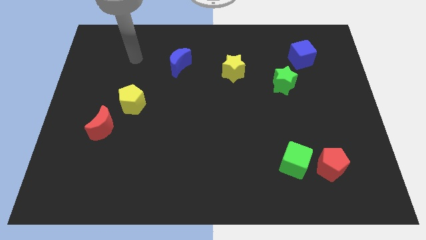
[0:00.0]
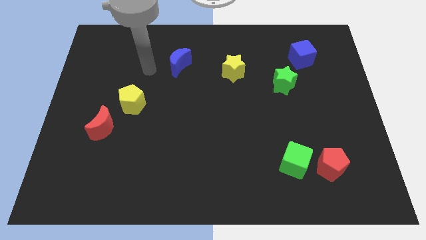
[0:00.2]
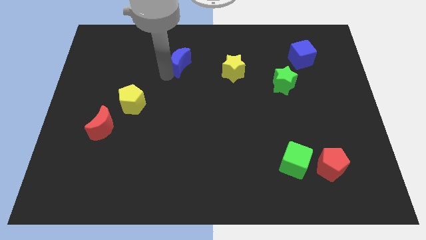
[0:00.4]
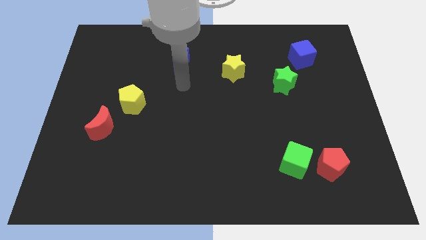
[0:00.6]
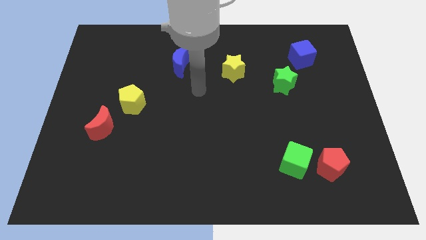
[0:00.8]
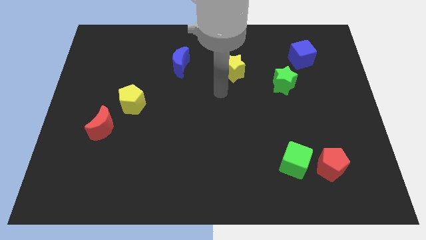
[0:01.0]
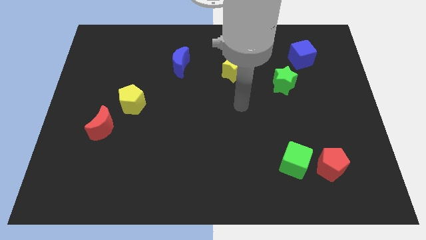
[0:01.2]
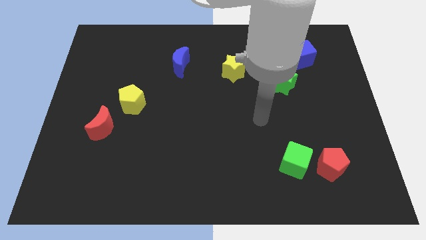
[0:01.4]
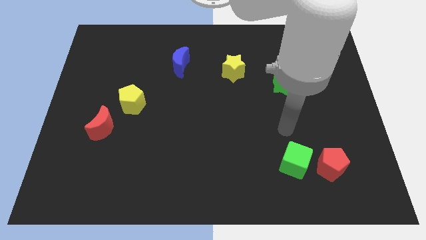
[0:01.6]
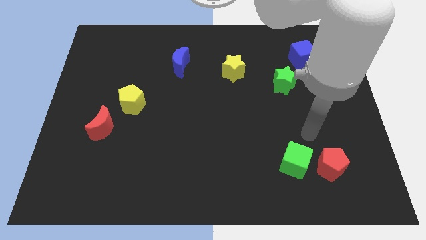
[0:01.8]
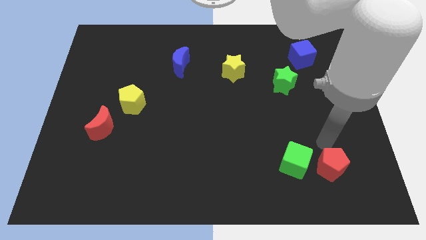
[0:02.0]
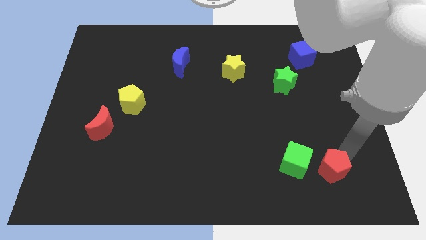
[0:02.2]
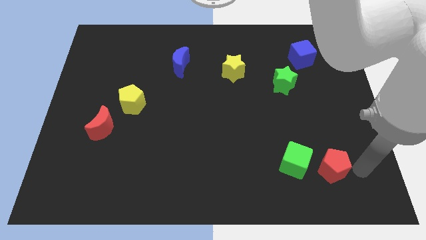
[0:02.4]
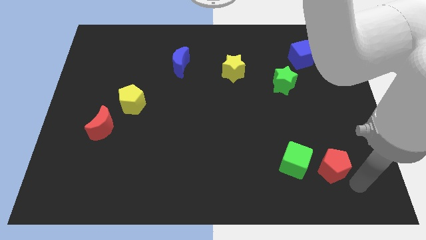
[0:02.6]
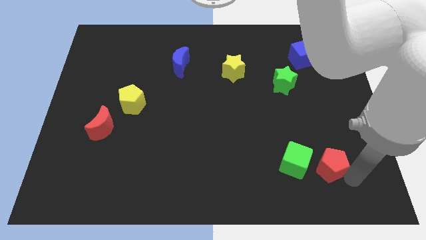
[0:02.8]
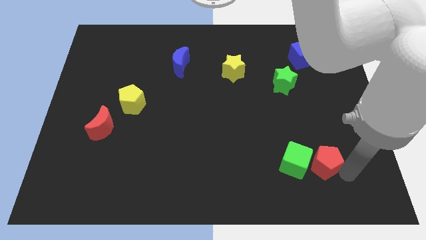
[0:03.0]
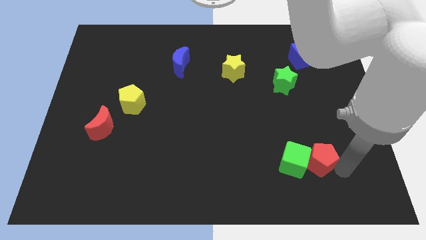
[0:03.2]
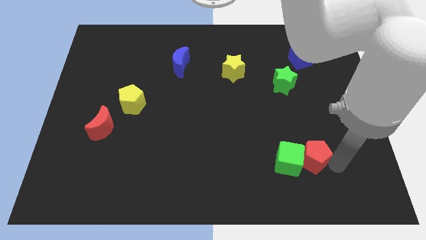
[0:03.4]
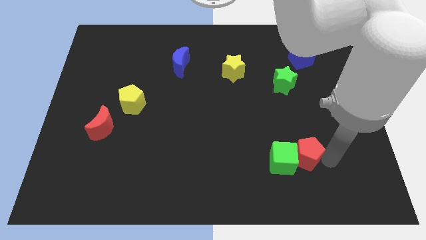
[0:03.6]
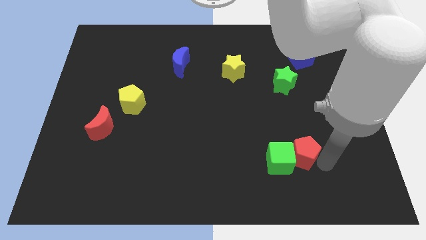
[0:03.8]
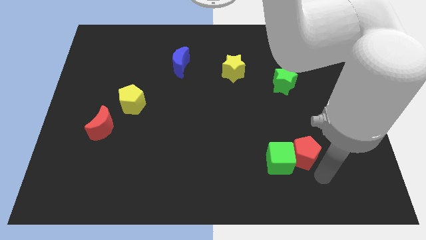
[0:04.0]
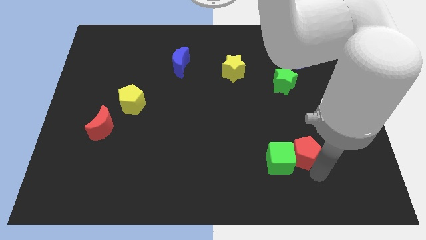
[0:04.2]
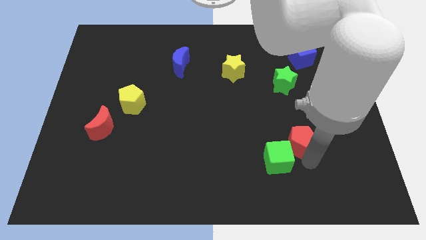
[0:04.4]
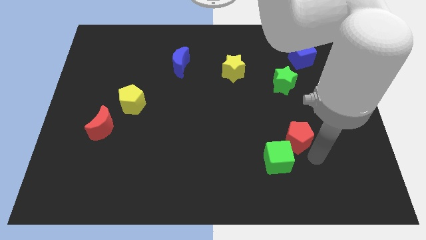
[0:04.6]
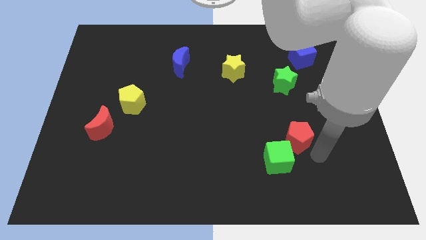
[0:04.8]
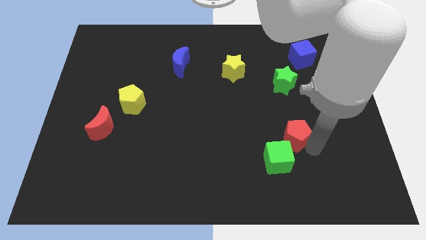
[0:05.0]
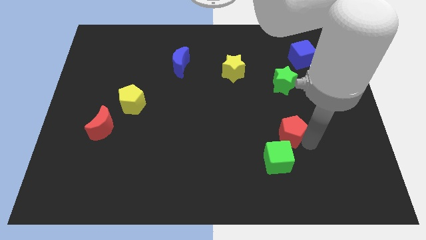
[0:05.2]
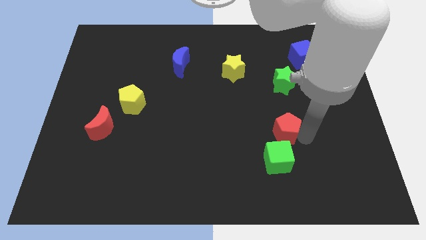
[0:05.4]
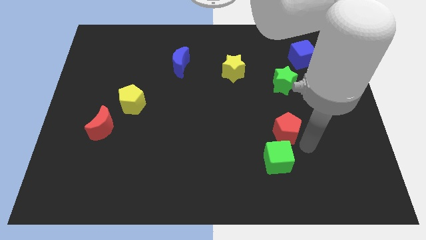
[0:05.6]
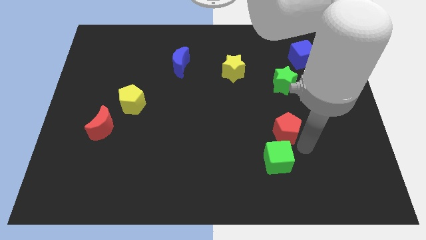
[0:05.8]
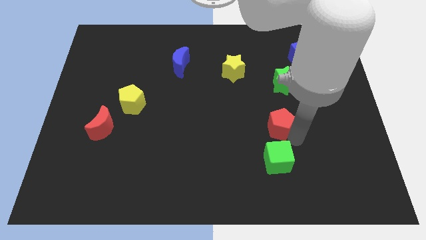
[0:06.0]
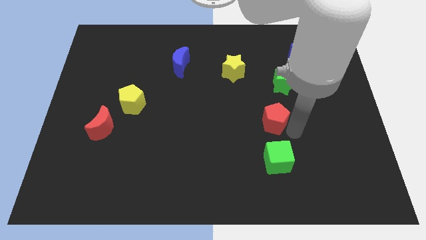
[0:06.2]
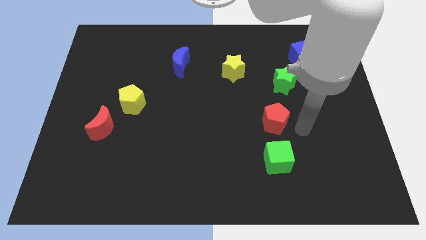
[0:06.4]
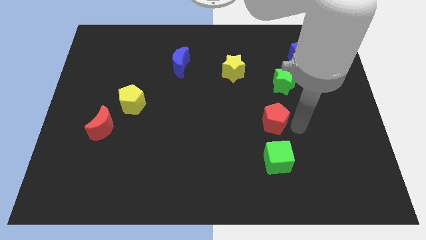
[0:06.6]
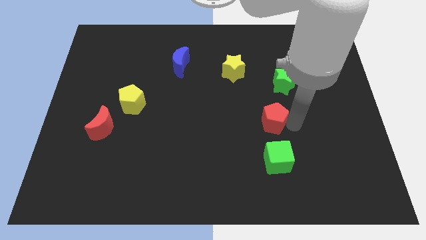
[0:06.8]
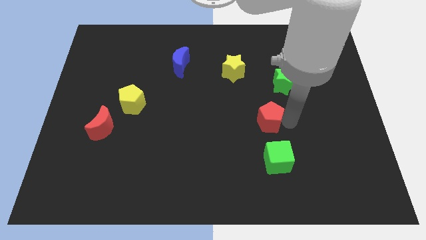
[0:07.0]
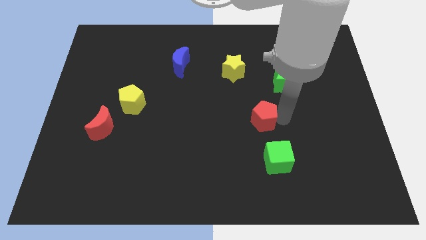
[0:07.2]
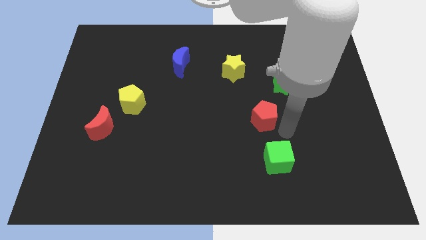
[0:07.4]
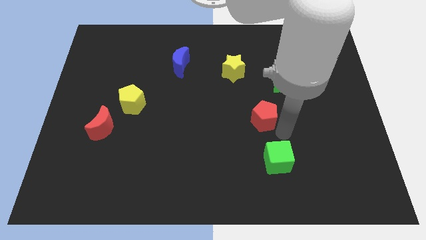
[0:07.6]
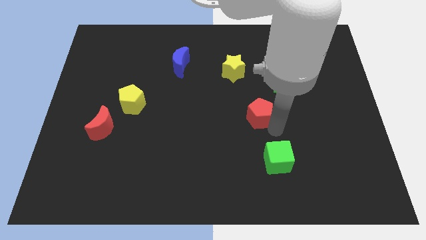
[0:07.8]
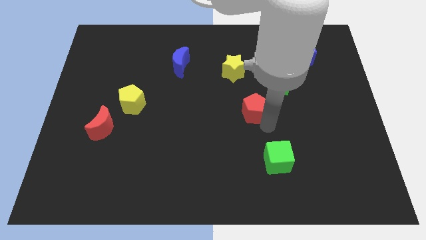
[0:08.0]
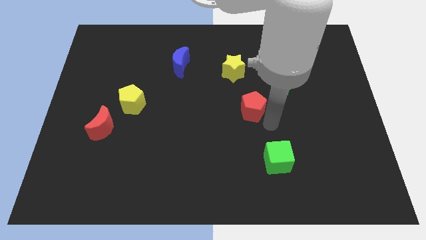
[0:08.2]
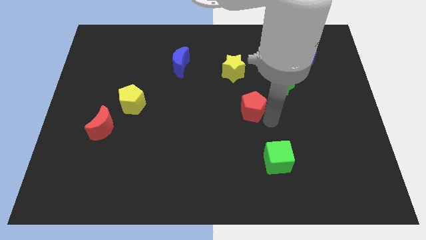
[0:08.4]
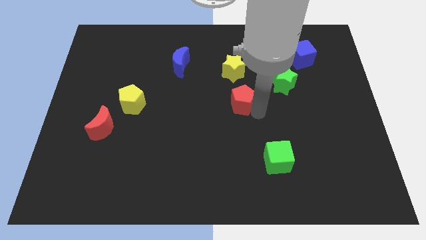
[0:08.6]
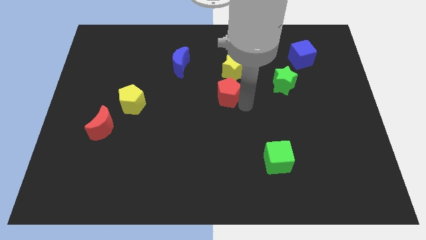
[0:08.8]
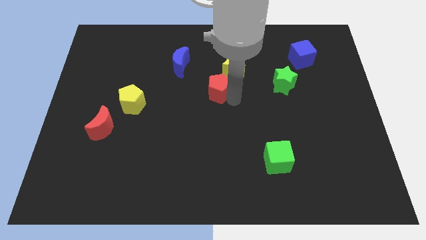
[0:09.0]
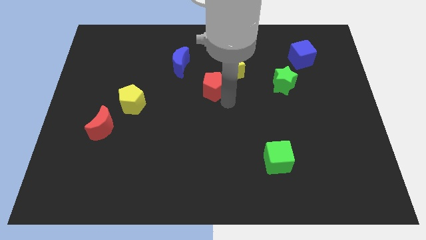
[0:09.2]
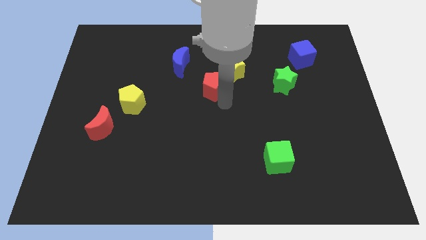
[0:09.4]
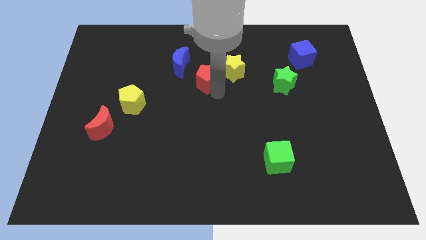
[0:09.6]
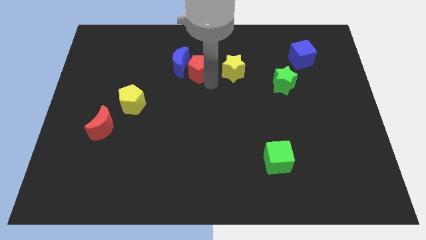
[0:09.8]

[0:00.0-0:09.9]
put the red pentagon close to the blue moon

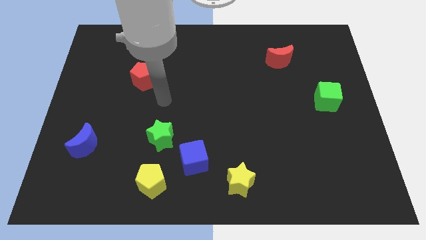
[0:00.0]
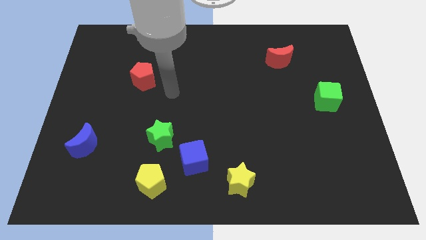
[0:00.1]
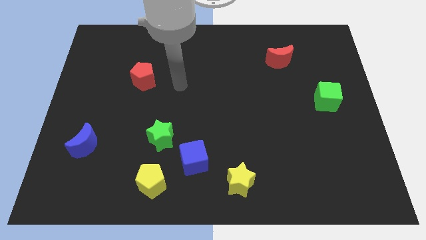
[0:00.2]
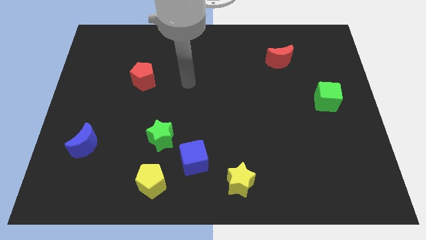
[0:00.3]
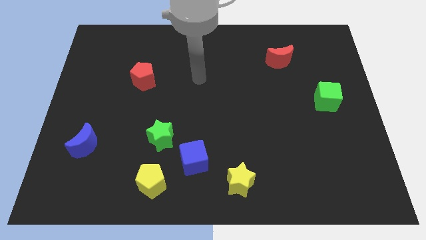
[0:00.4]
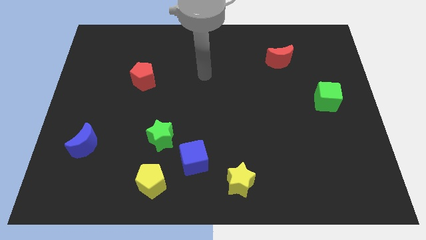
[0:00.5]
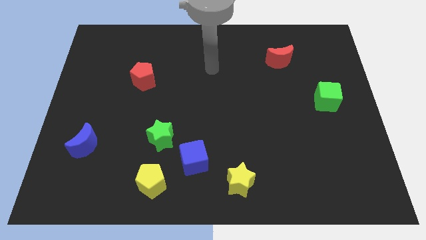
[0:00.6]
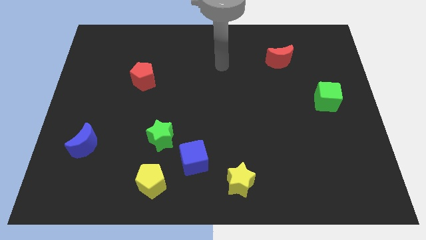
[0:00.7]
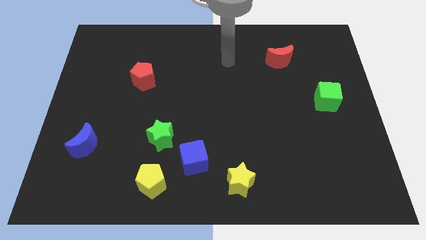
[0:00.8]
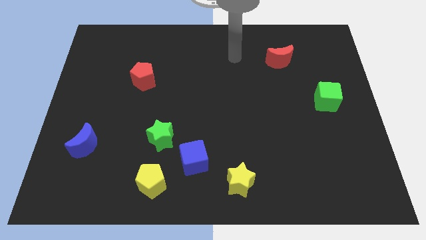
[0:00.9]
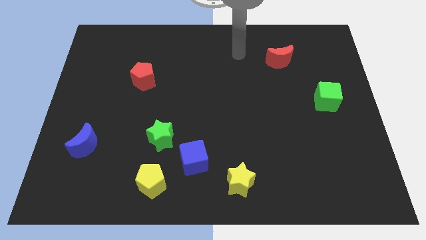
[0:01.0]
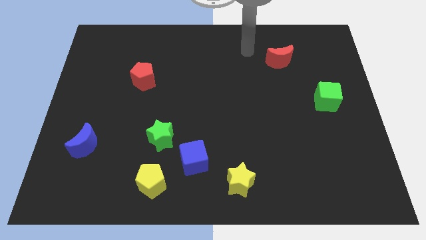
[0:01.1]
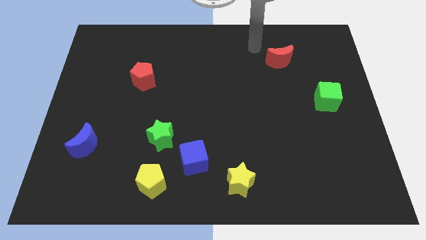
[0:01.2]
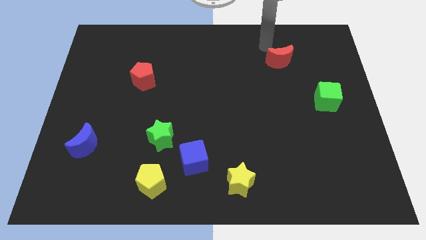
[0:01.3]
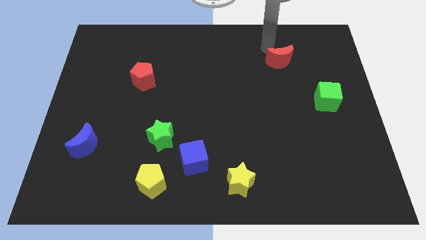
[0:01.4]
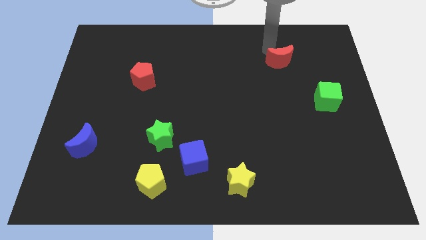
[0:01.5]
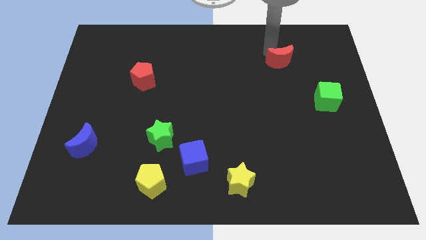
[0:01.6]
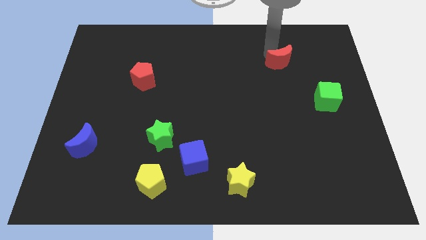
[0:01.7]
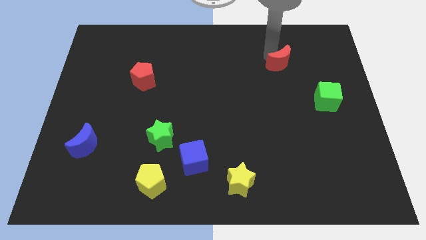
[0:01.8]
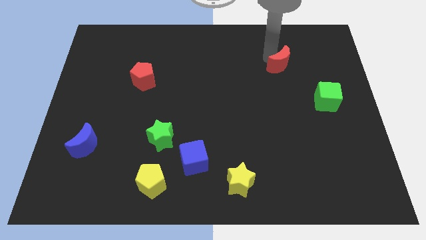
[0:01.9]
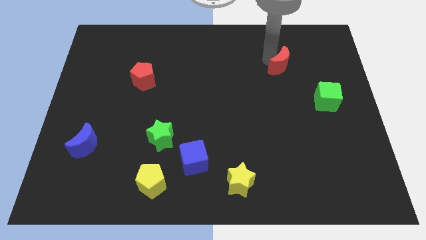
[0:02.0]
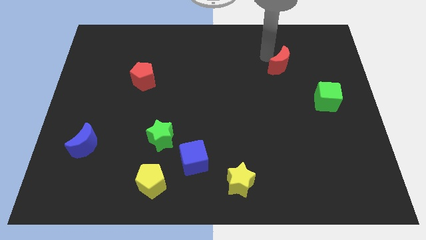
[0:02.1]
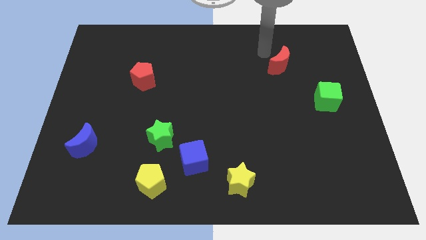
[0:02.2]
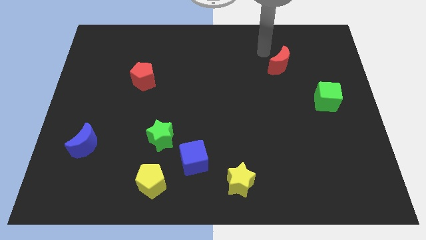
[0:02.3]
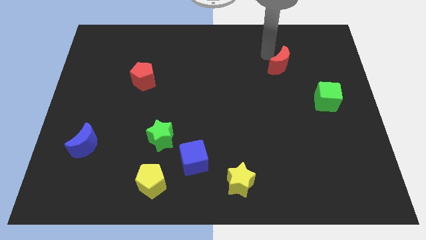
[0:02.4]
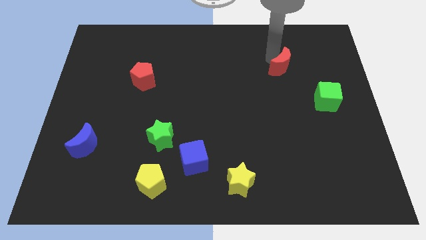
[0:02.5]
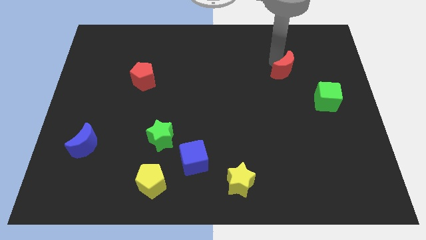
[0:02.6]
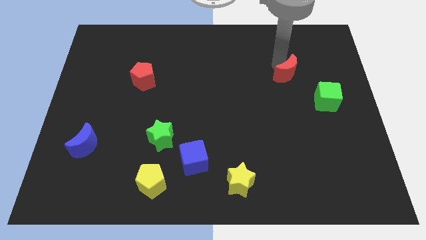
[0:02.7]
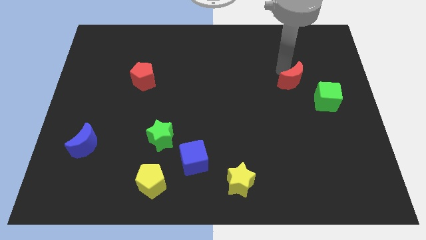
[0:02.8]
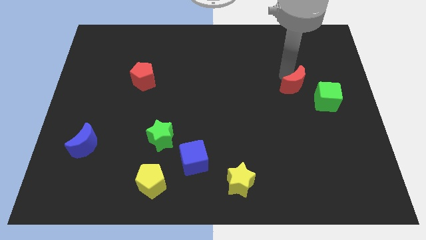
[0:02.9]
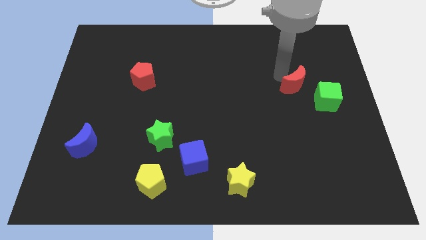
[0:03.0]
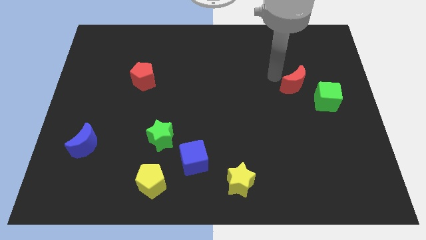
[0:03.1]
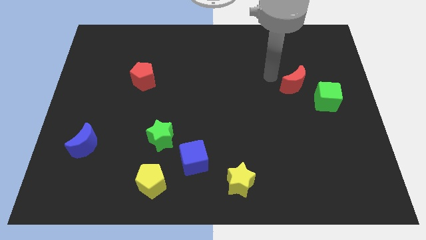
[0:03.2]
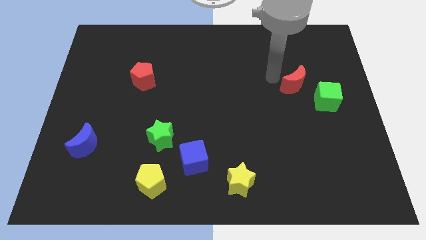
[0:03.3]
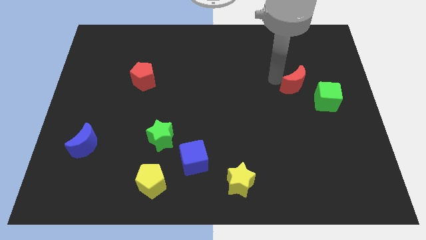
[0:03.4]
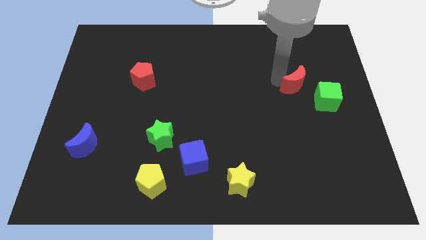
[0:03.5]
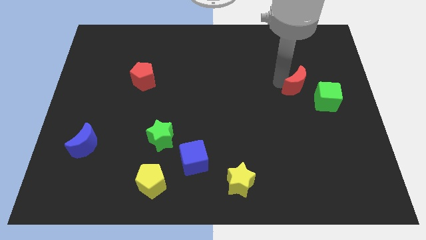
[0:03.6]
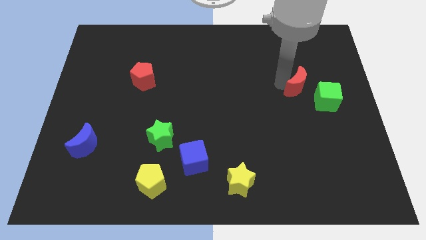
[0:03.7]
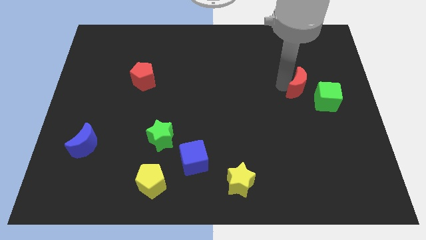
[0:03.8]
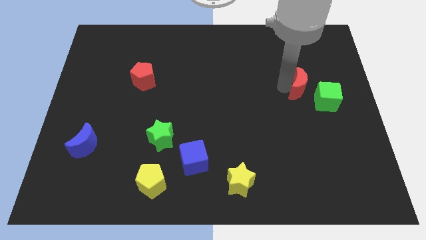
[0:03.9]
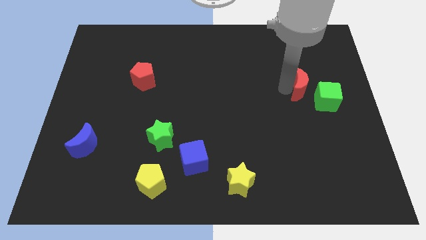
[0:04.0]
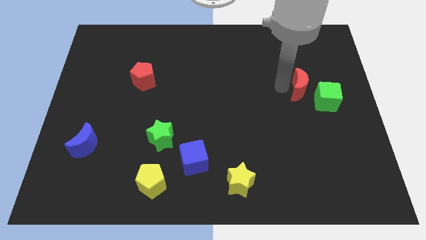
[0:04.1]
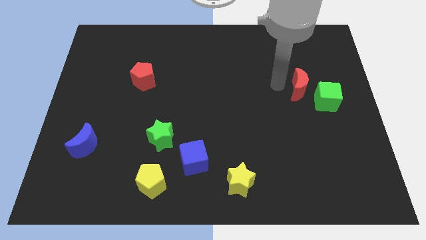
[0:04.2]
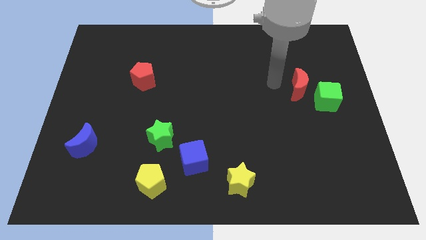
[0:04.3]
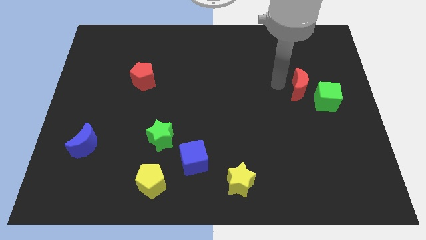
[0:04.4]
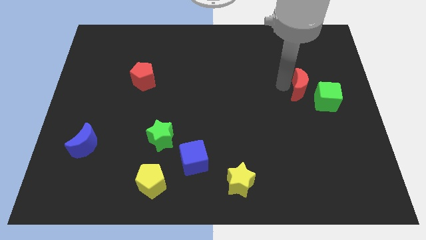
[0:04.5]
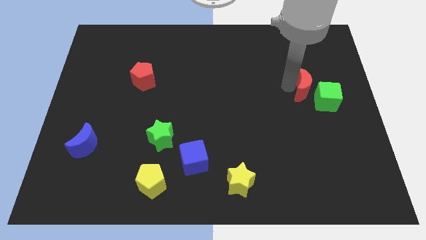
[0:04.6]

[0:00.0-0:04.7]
push the red moon next to the green cube
